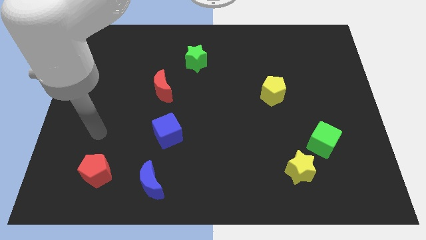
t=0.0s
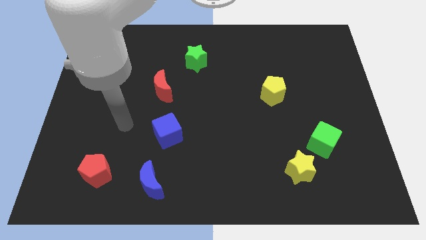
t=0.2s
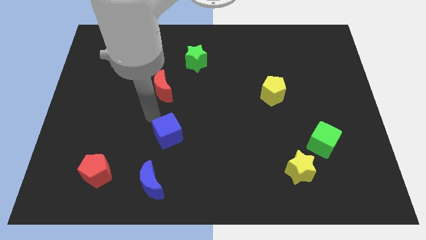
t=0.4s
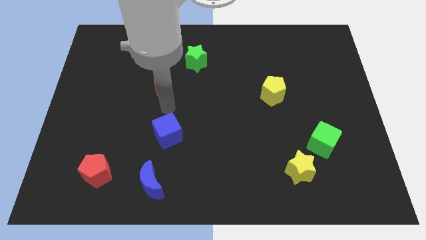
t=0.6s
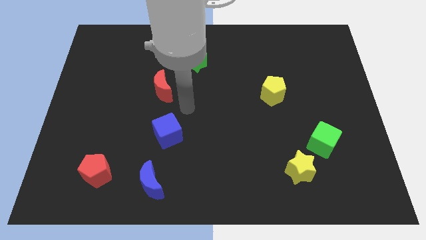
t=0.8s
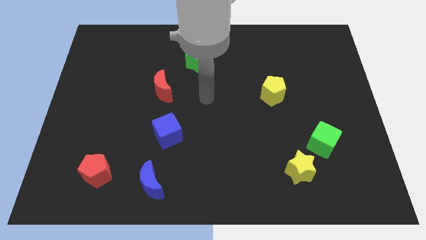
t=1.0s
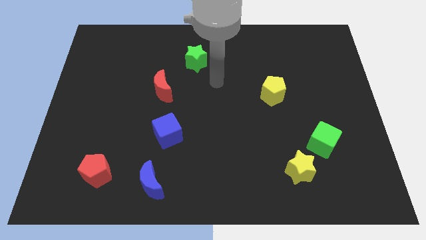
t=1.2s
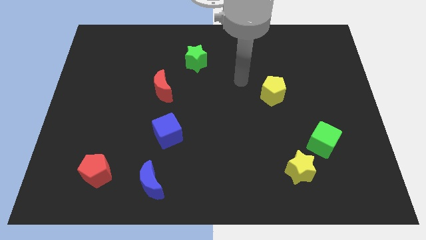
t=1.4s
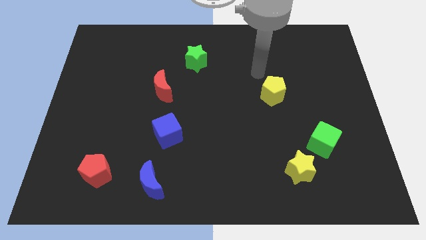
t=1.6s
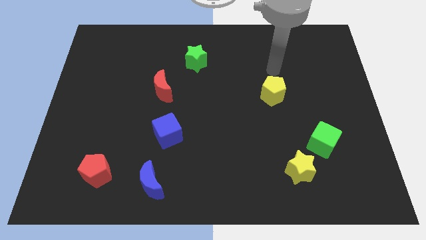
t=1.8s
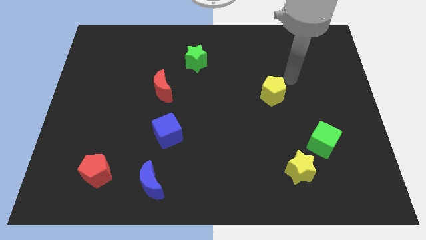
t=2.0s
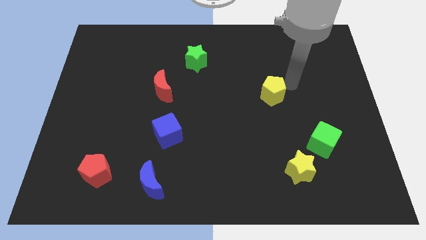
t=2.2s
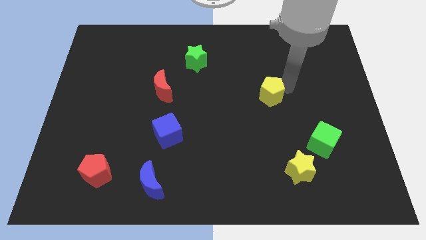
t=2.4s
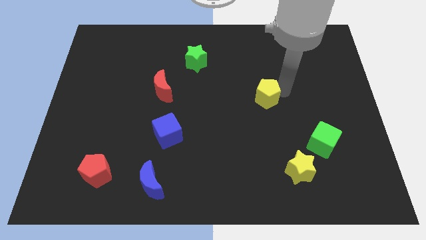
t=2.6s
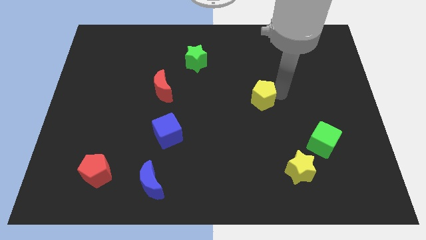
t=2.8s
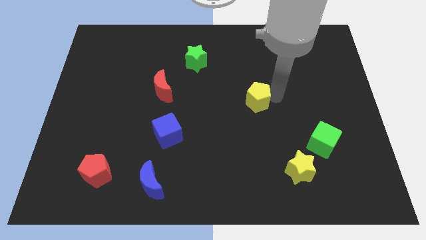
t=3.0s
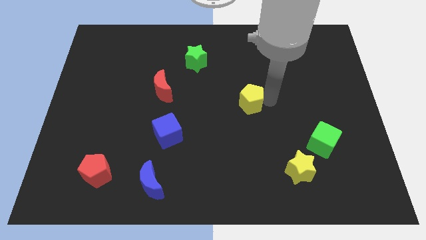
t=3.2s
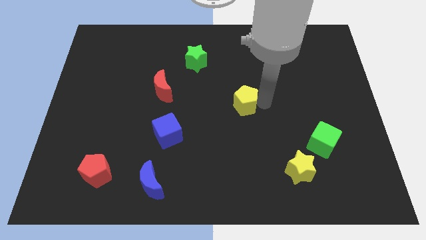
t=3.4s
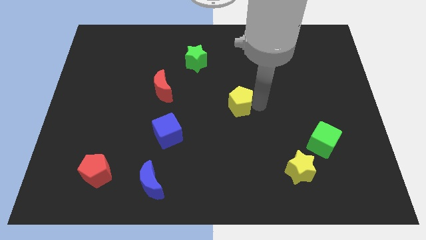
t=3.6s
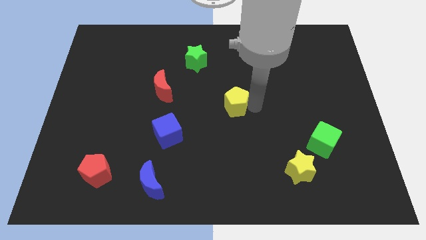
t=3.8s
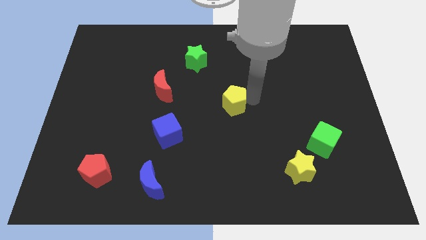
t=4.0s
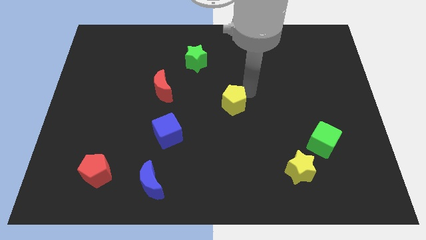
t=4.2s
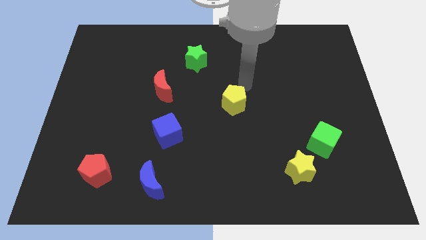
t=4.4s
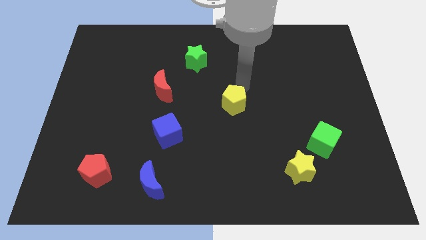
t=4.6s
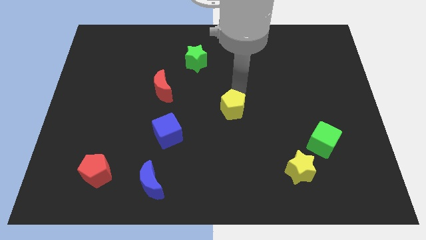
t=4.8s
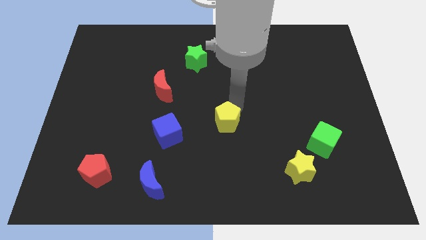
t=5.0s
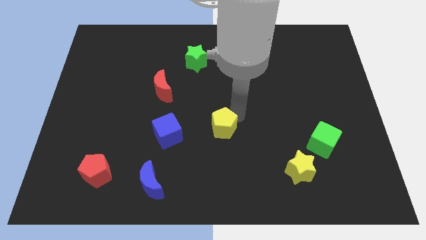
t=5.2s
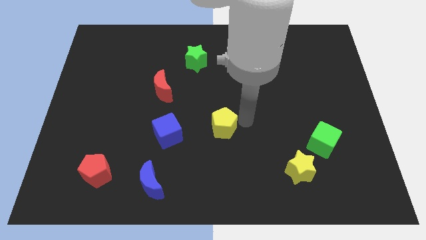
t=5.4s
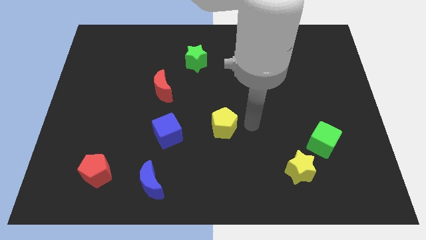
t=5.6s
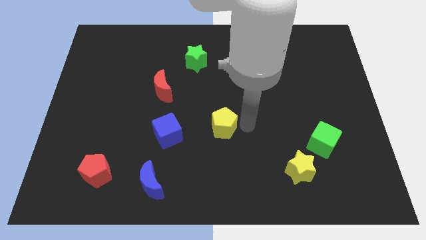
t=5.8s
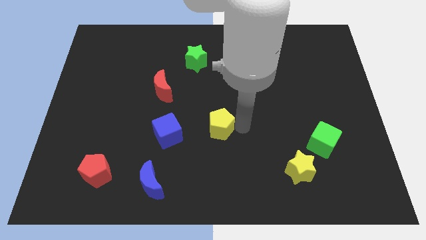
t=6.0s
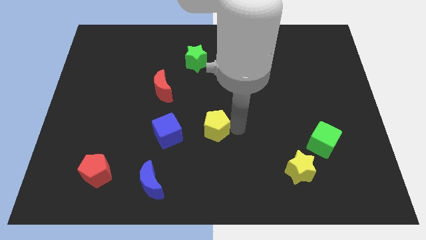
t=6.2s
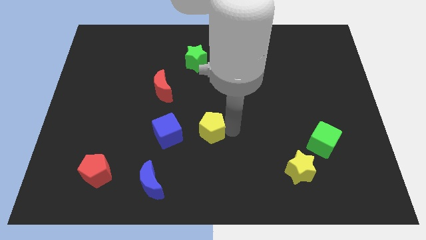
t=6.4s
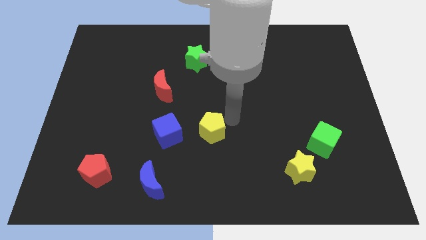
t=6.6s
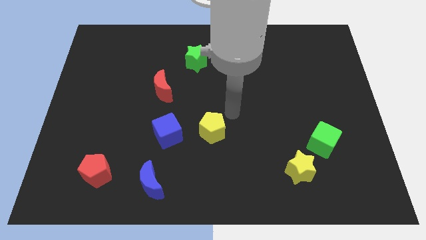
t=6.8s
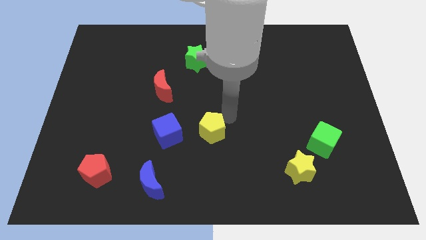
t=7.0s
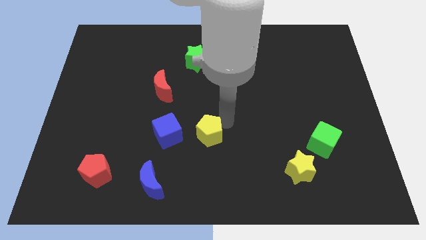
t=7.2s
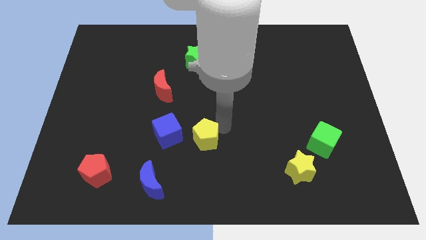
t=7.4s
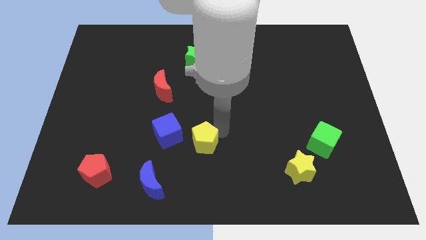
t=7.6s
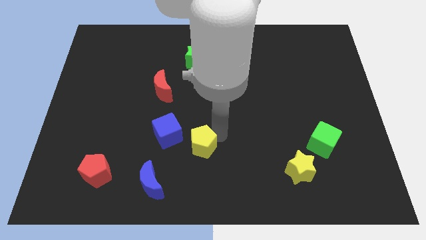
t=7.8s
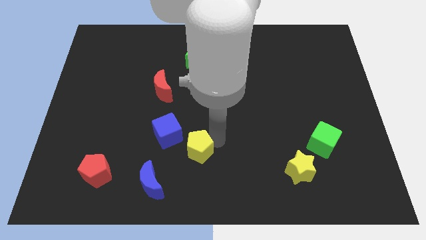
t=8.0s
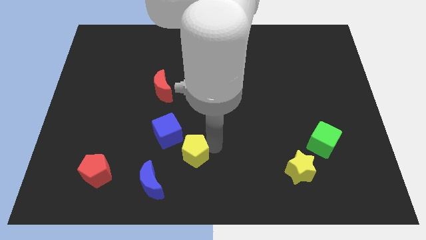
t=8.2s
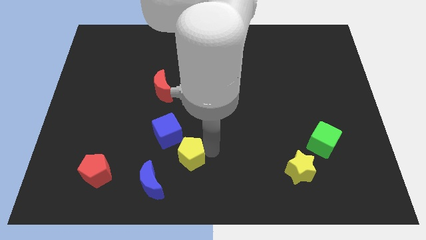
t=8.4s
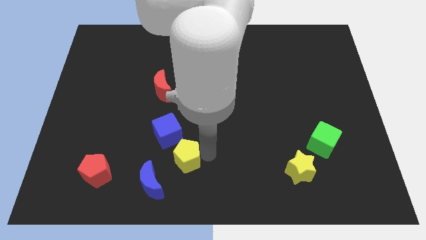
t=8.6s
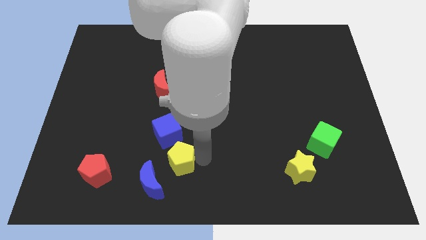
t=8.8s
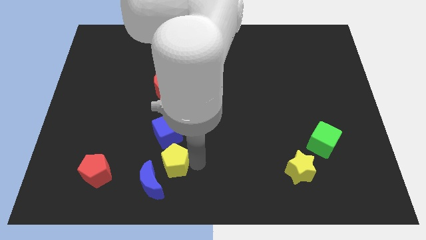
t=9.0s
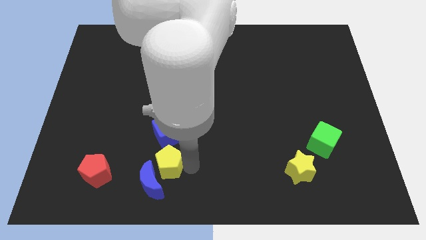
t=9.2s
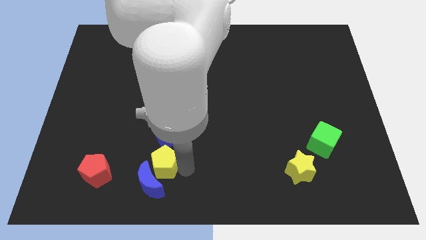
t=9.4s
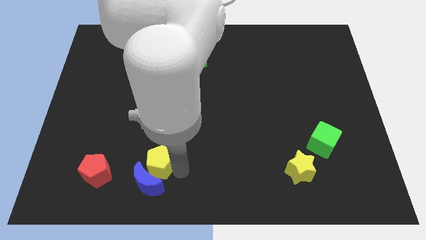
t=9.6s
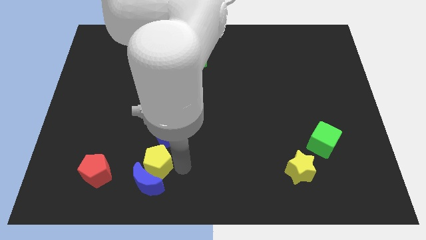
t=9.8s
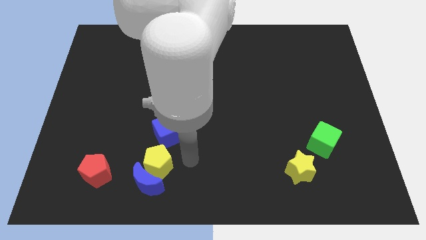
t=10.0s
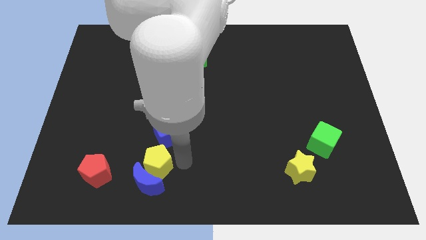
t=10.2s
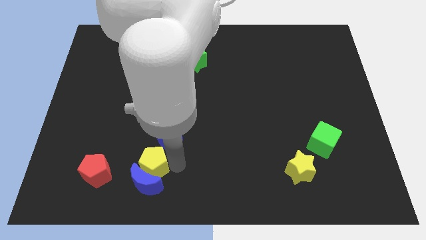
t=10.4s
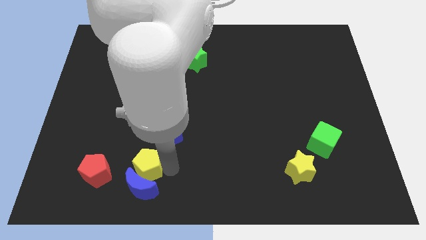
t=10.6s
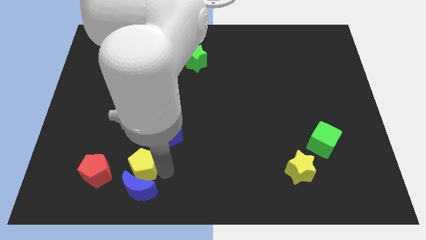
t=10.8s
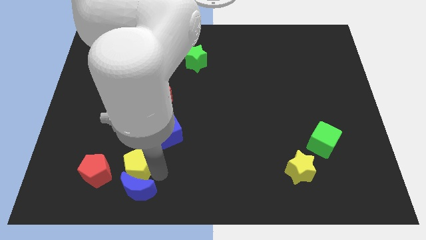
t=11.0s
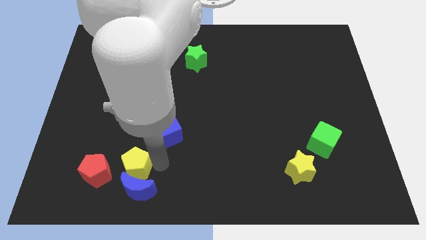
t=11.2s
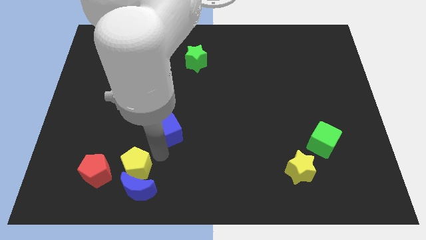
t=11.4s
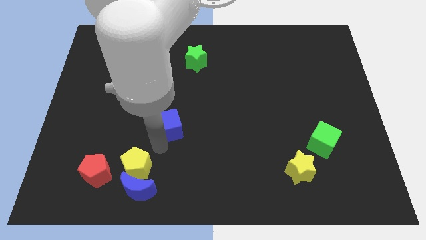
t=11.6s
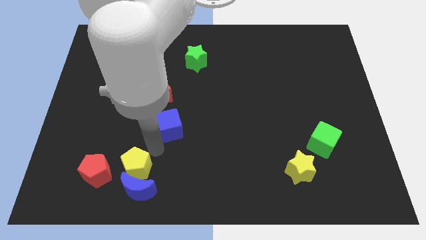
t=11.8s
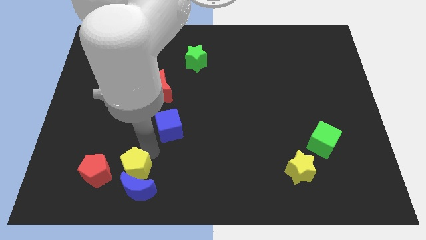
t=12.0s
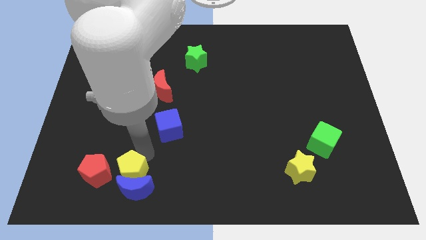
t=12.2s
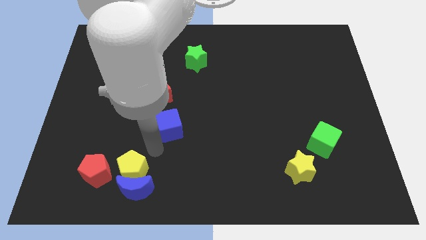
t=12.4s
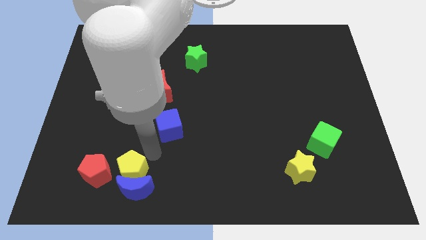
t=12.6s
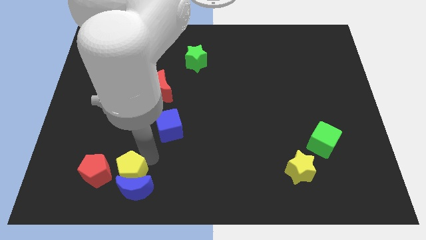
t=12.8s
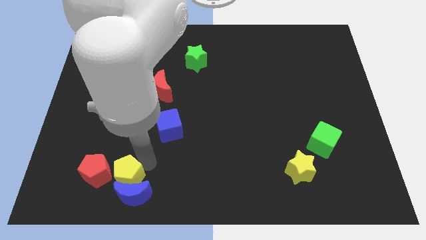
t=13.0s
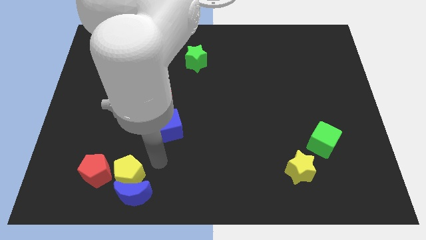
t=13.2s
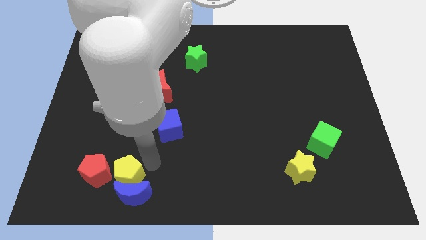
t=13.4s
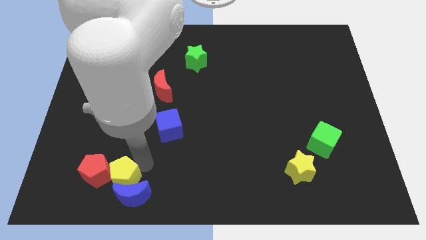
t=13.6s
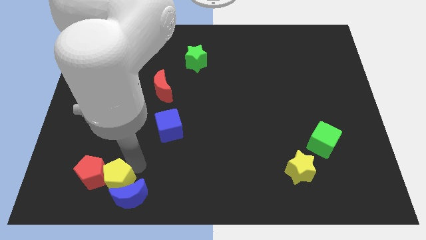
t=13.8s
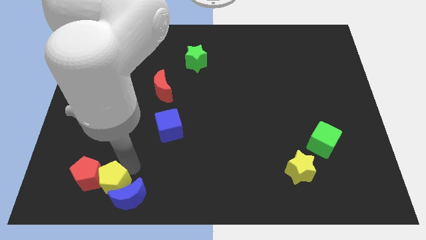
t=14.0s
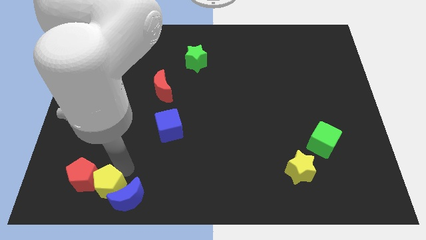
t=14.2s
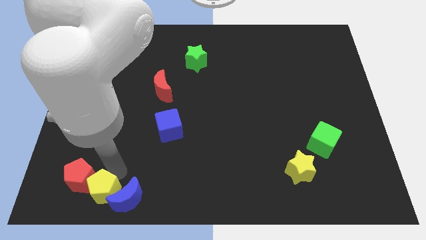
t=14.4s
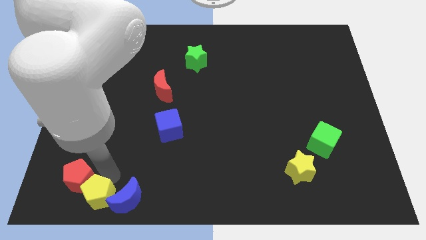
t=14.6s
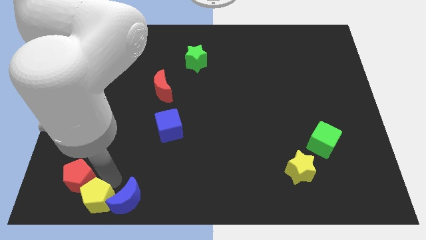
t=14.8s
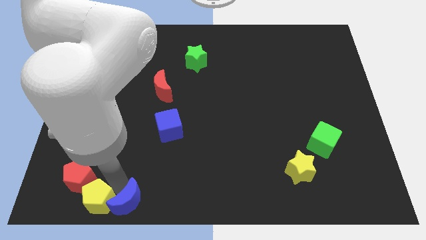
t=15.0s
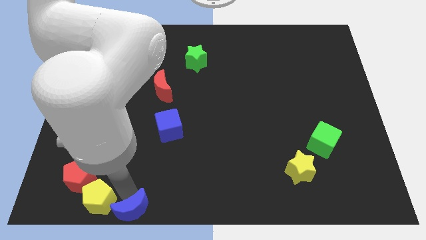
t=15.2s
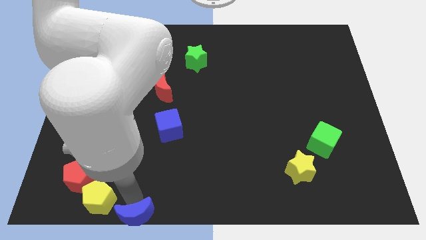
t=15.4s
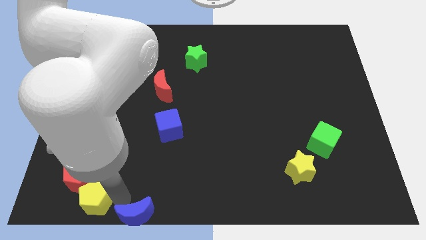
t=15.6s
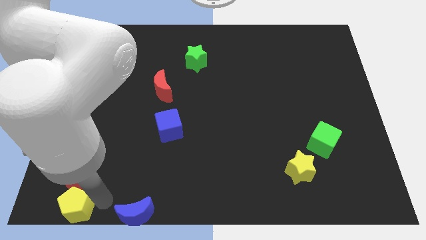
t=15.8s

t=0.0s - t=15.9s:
slide the yellow pentagon to the lower left corner
